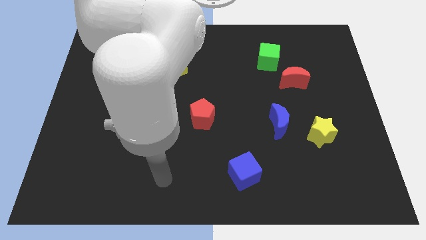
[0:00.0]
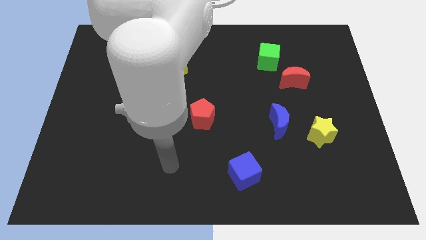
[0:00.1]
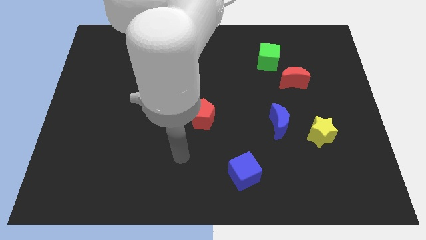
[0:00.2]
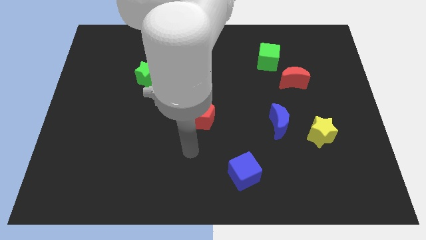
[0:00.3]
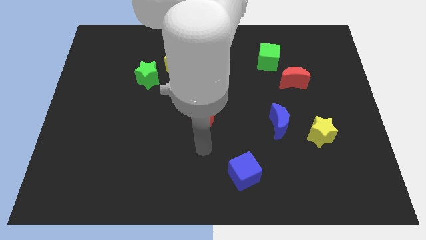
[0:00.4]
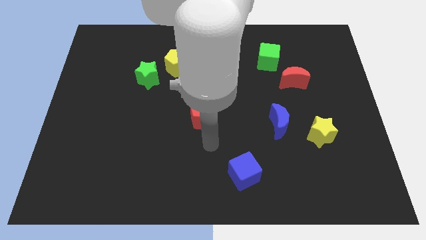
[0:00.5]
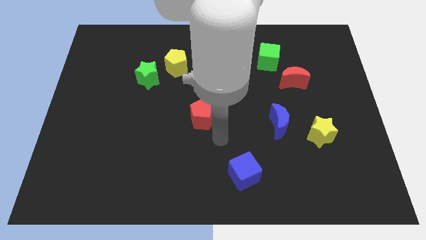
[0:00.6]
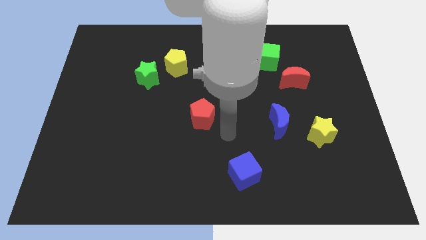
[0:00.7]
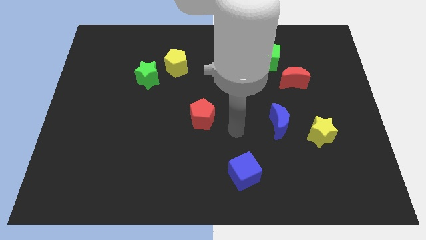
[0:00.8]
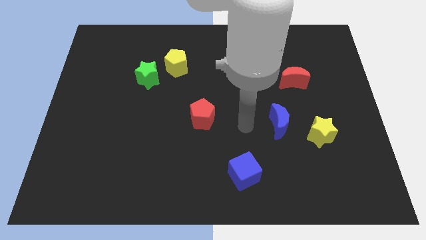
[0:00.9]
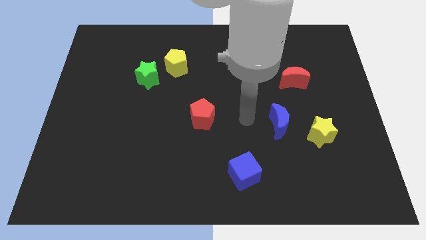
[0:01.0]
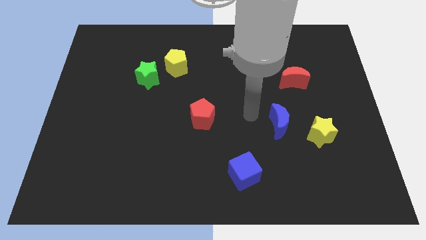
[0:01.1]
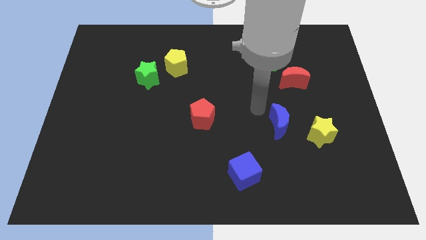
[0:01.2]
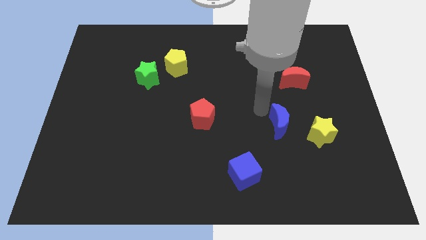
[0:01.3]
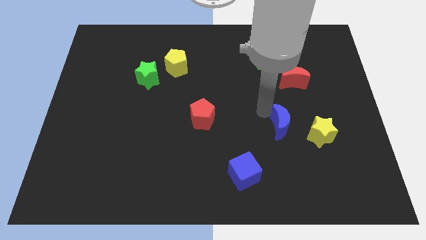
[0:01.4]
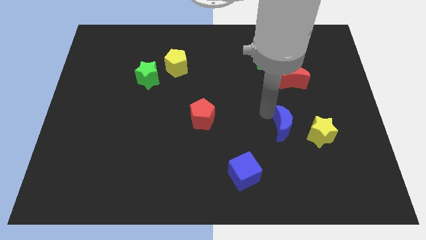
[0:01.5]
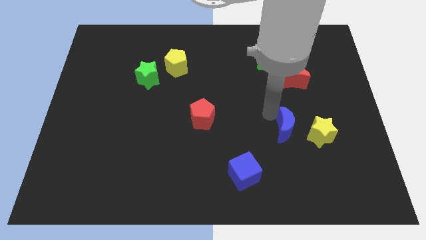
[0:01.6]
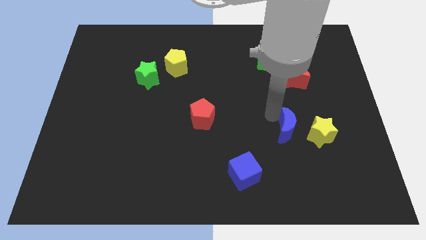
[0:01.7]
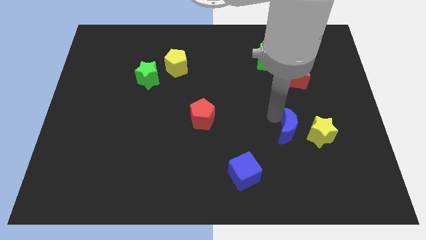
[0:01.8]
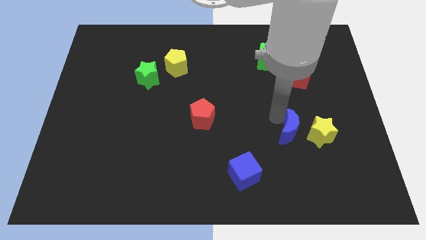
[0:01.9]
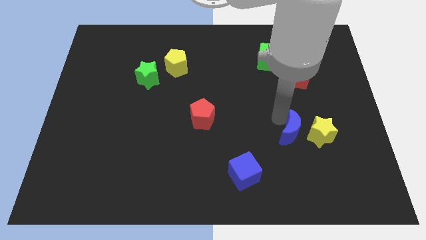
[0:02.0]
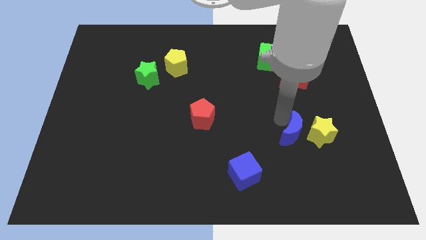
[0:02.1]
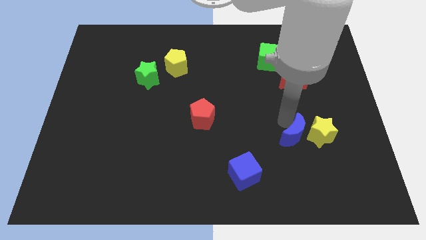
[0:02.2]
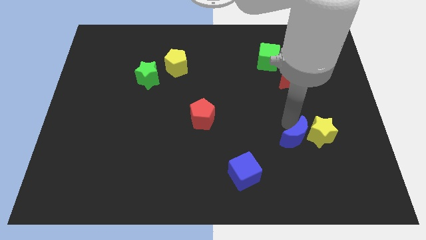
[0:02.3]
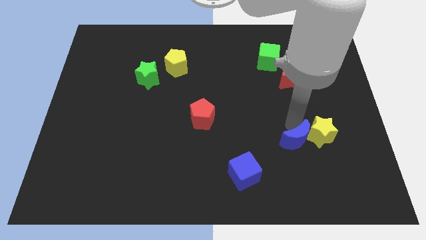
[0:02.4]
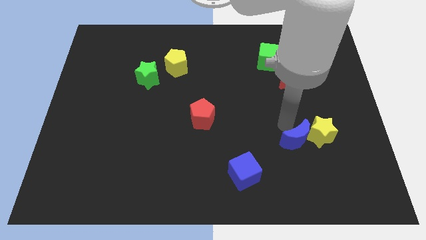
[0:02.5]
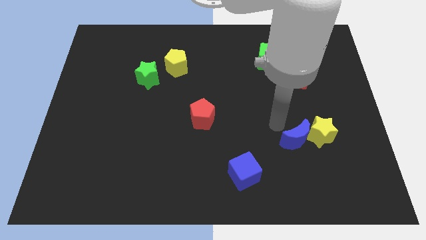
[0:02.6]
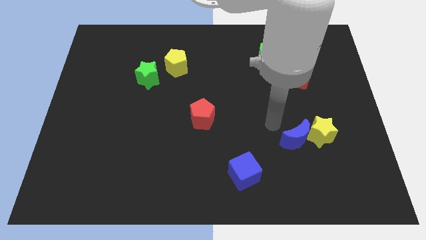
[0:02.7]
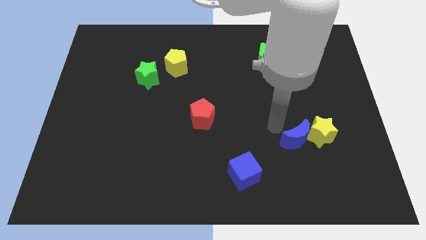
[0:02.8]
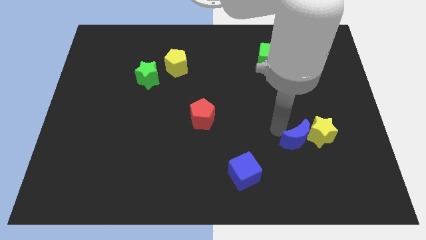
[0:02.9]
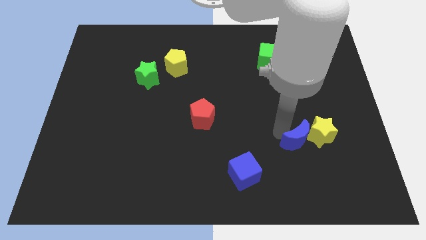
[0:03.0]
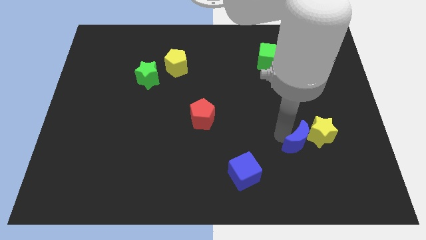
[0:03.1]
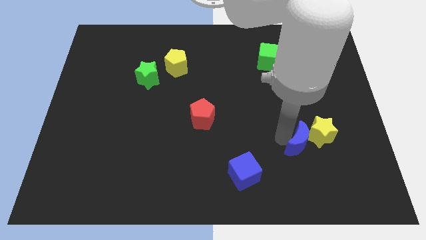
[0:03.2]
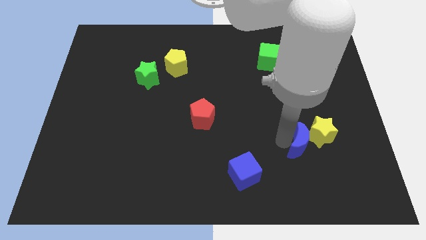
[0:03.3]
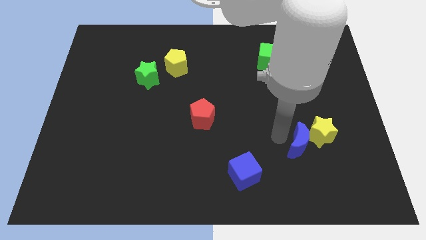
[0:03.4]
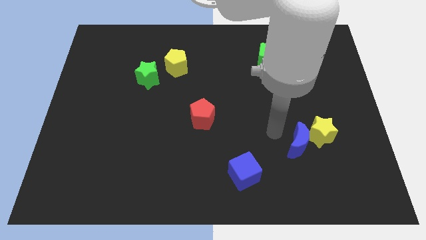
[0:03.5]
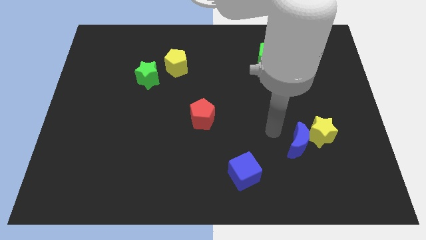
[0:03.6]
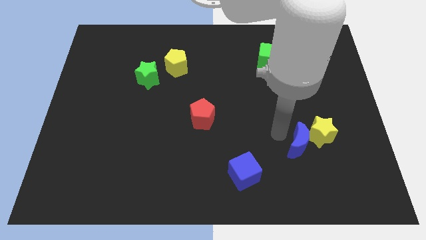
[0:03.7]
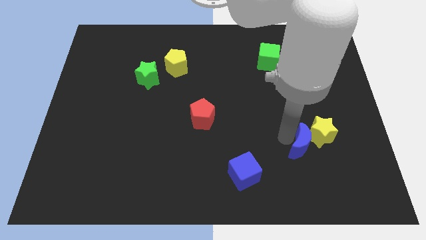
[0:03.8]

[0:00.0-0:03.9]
push the blue moon somewhat down and right

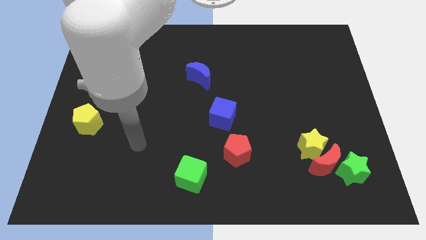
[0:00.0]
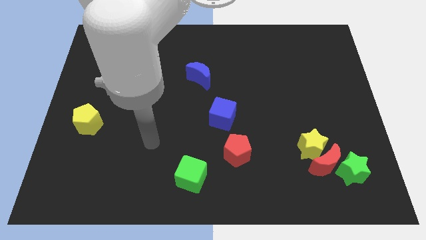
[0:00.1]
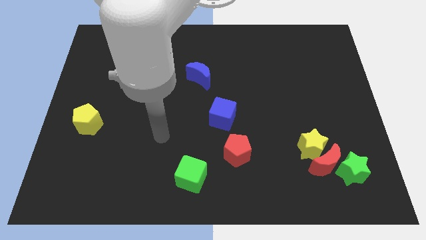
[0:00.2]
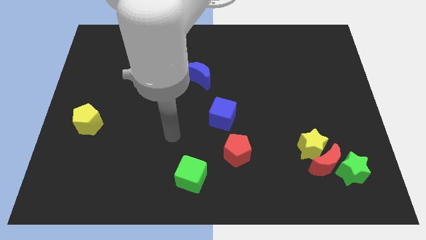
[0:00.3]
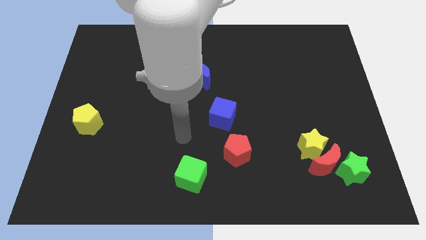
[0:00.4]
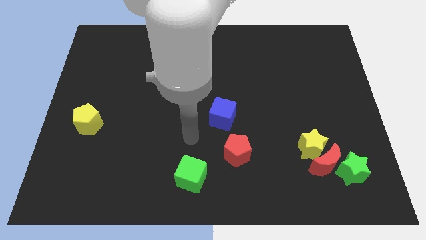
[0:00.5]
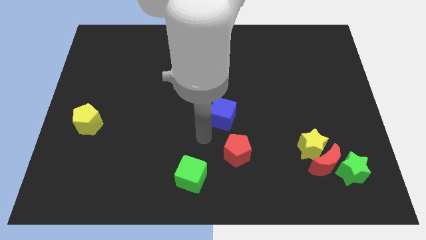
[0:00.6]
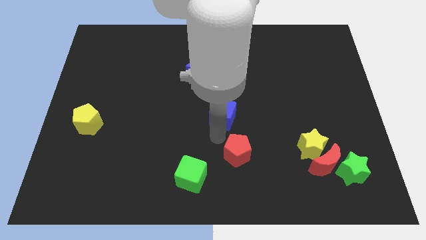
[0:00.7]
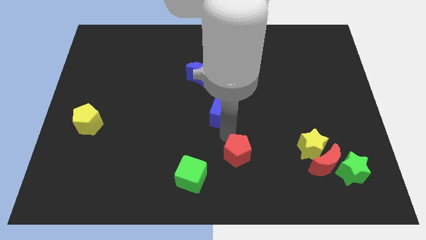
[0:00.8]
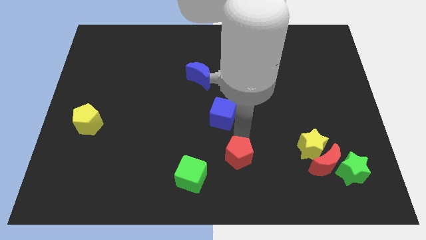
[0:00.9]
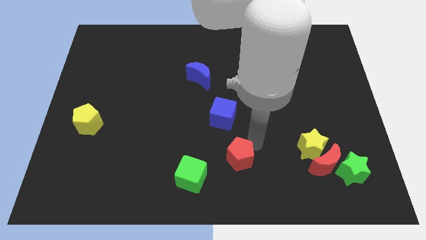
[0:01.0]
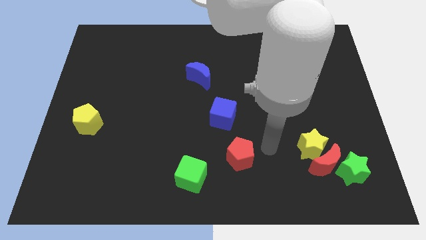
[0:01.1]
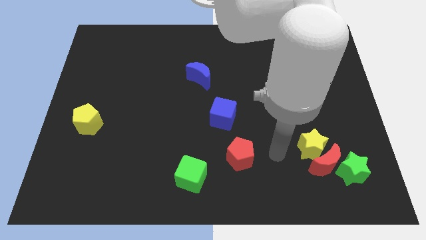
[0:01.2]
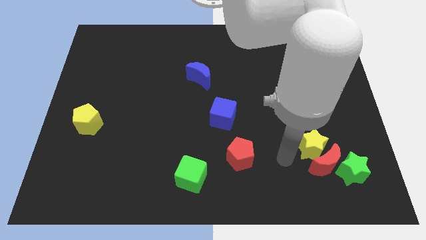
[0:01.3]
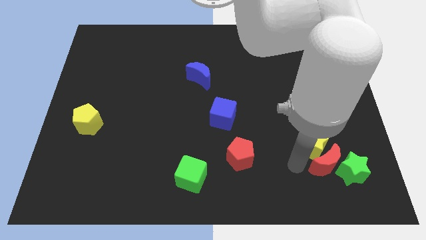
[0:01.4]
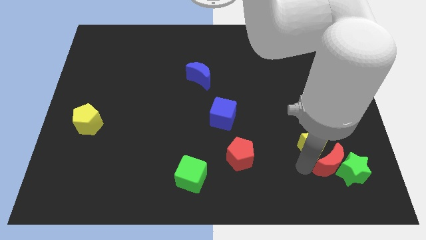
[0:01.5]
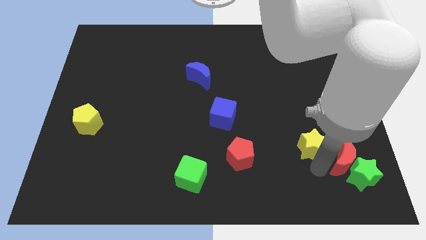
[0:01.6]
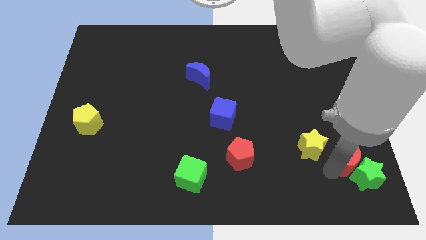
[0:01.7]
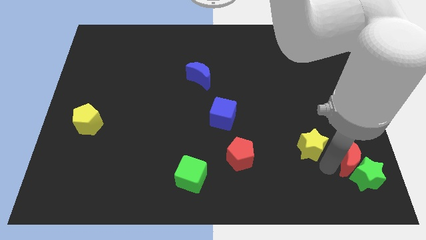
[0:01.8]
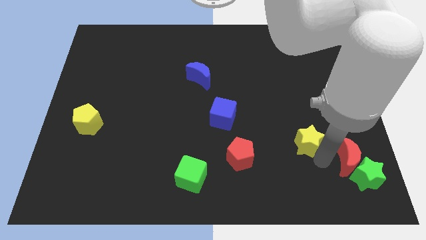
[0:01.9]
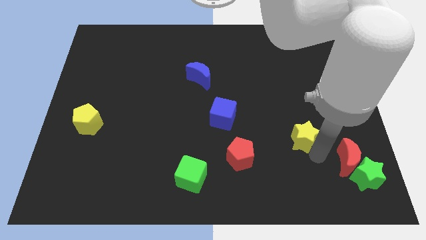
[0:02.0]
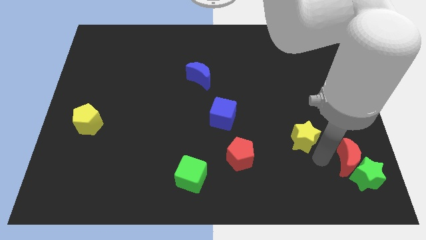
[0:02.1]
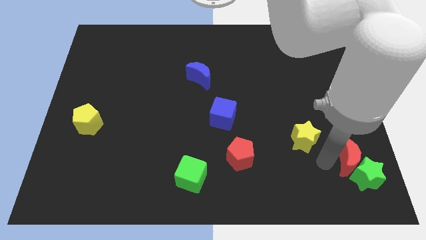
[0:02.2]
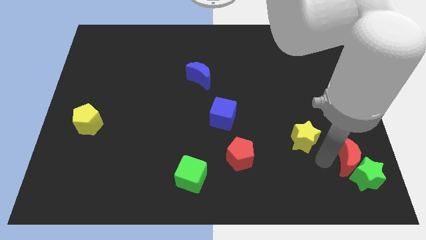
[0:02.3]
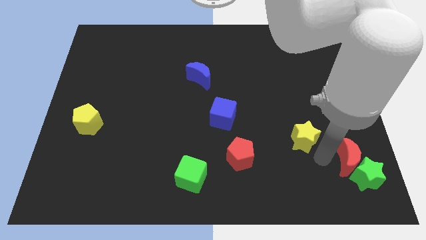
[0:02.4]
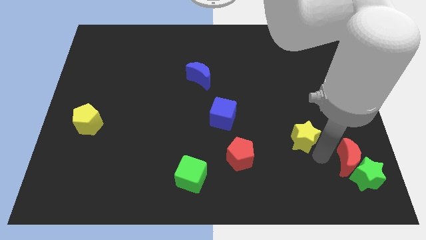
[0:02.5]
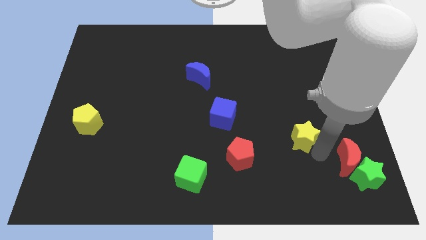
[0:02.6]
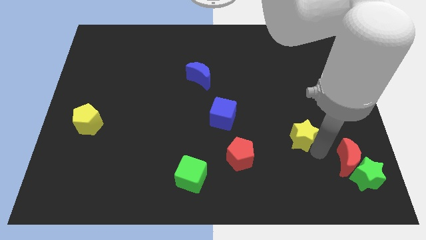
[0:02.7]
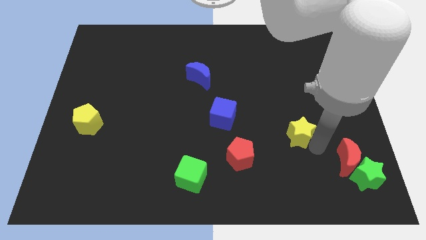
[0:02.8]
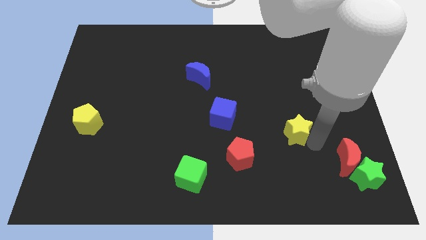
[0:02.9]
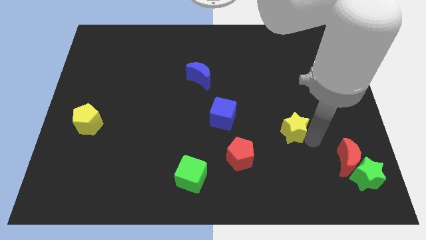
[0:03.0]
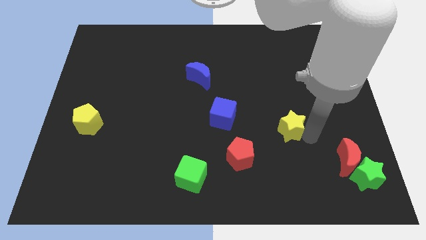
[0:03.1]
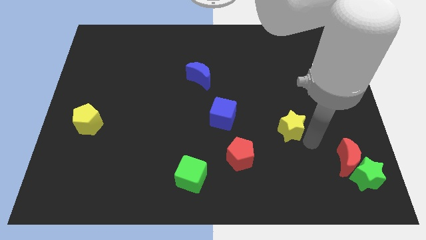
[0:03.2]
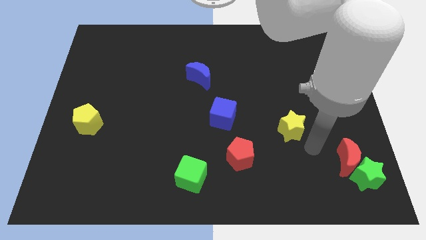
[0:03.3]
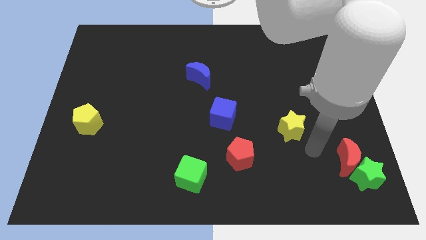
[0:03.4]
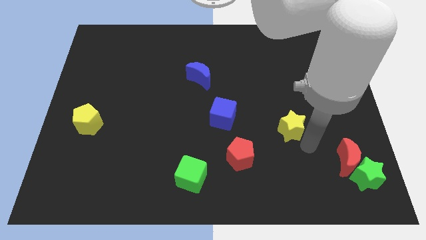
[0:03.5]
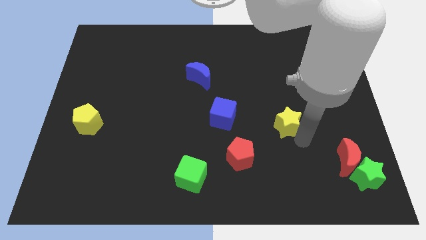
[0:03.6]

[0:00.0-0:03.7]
slide the yellow star up and to the left diagonally somewhat

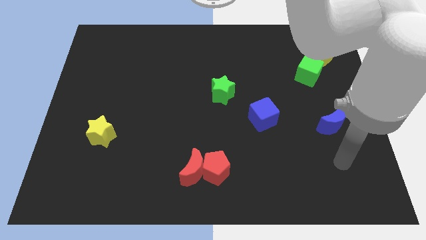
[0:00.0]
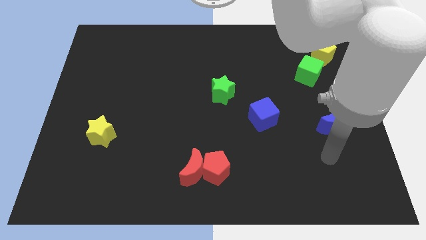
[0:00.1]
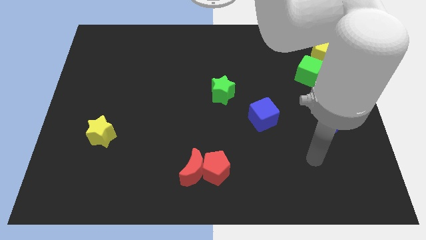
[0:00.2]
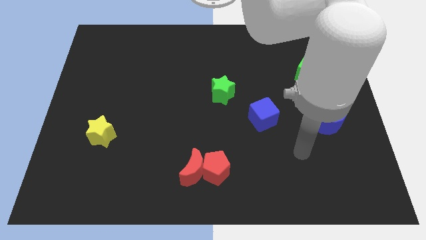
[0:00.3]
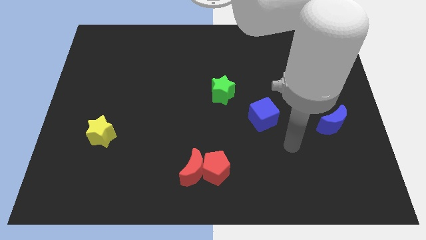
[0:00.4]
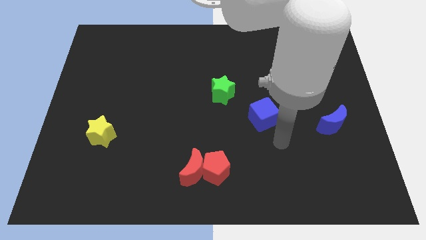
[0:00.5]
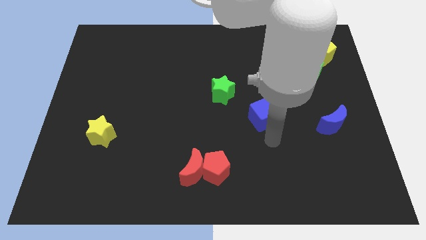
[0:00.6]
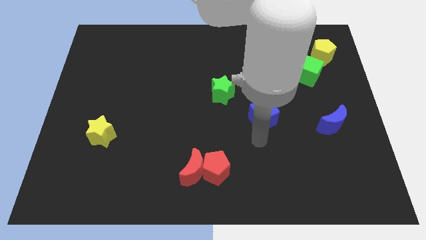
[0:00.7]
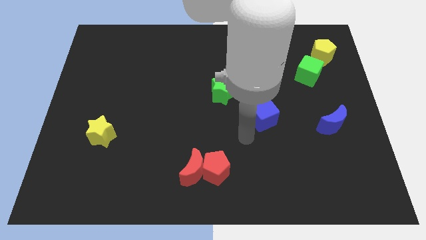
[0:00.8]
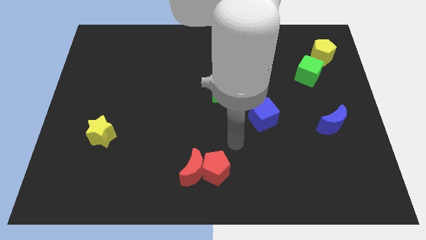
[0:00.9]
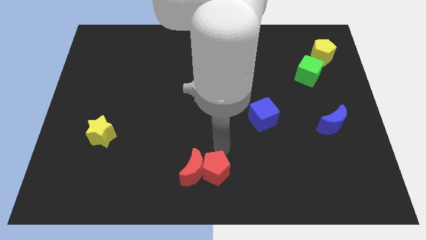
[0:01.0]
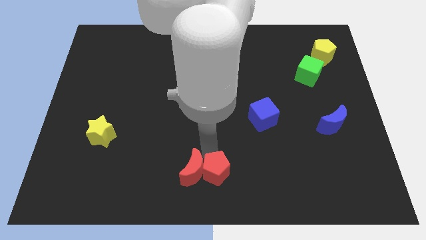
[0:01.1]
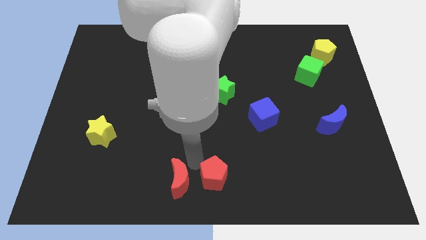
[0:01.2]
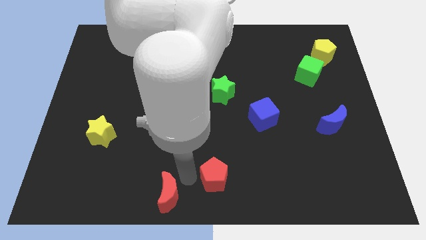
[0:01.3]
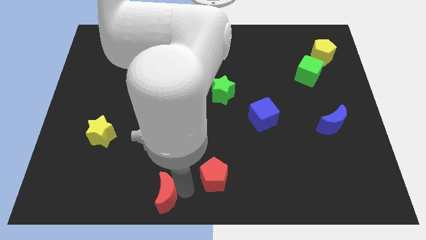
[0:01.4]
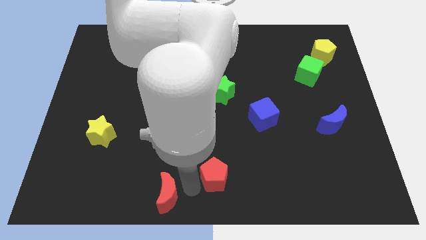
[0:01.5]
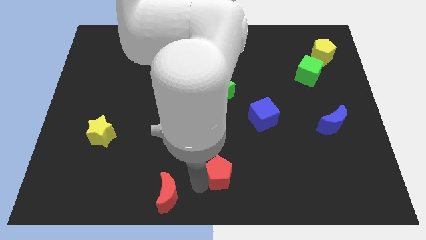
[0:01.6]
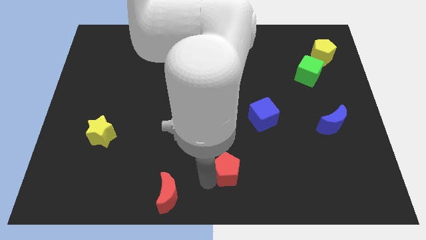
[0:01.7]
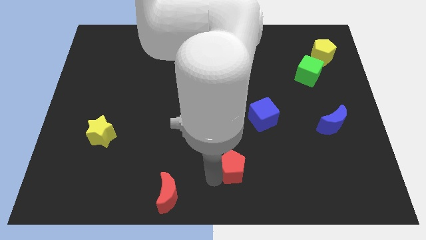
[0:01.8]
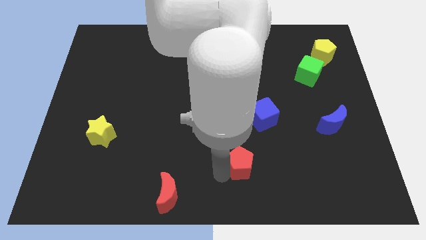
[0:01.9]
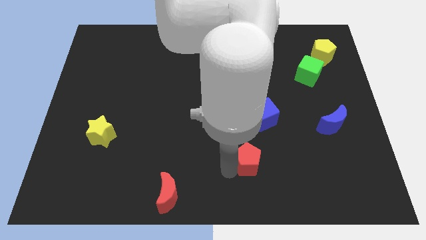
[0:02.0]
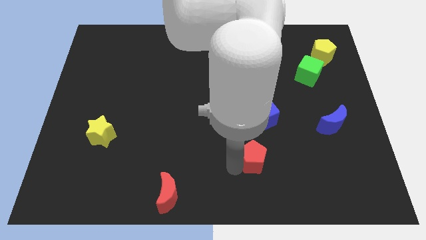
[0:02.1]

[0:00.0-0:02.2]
slightly move the red pentagon to the right
